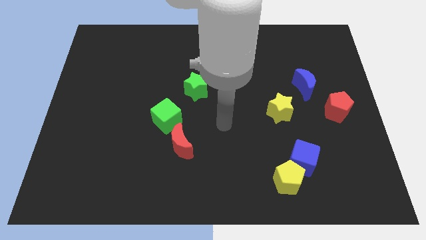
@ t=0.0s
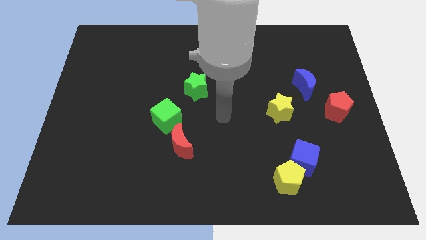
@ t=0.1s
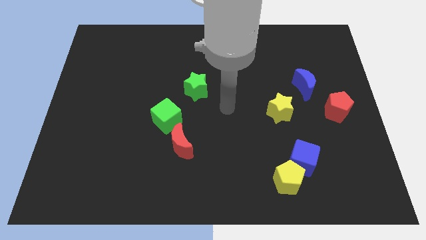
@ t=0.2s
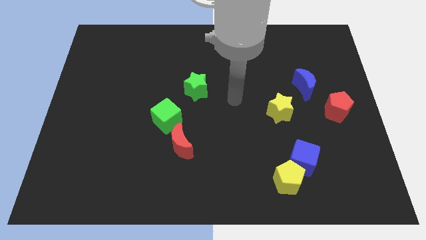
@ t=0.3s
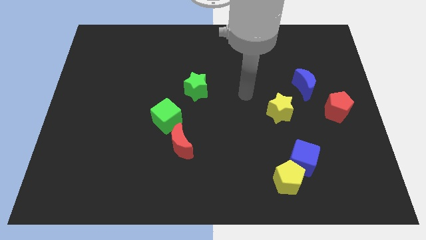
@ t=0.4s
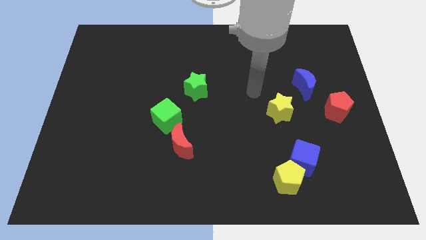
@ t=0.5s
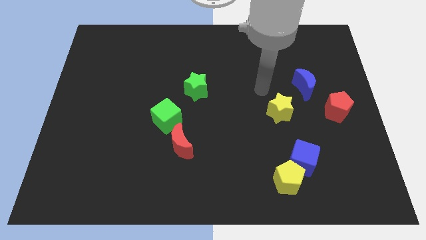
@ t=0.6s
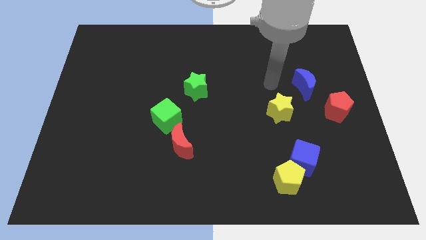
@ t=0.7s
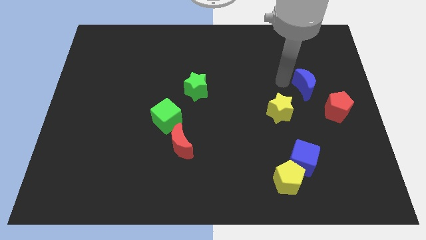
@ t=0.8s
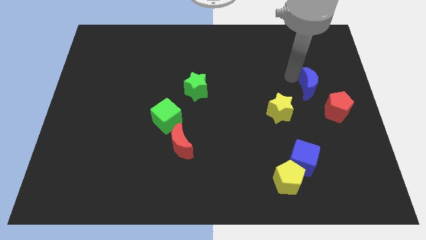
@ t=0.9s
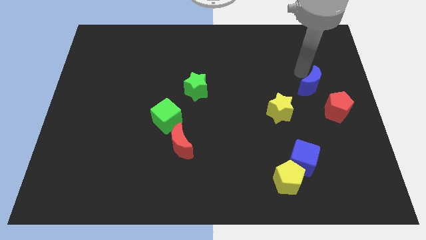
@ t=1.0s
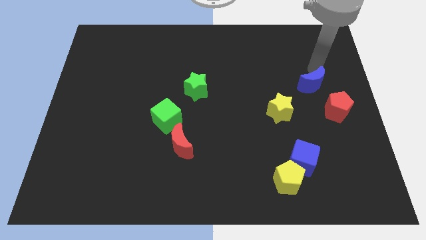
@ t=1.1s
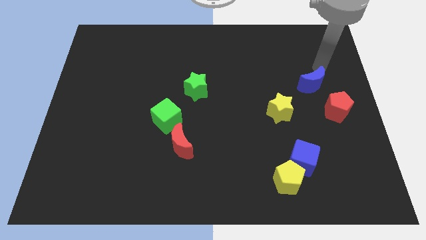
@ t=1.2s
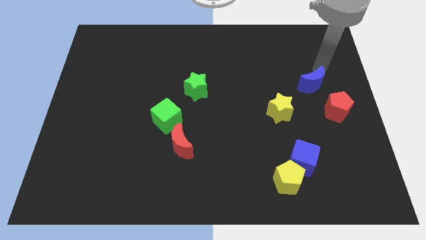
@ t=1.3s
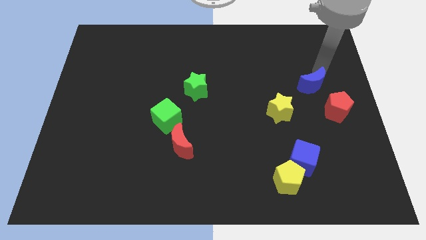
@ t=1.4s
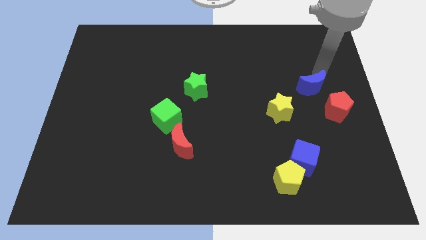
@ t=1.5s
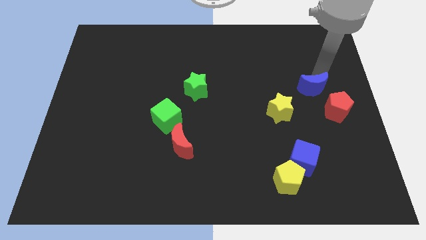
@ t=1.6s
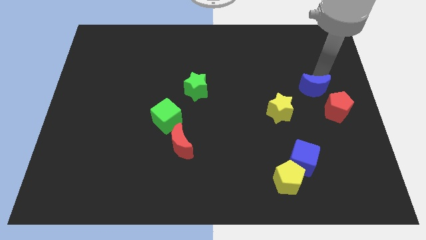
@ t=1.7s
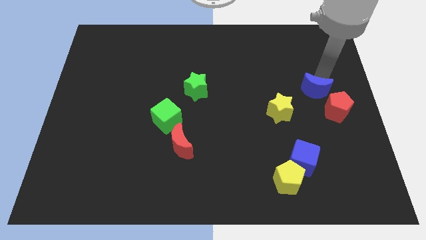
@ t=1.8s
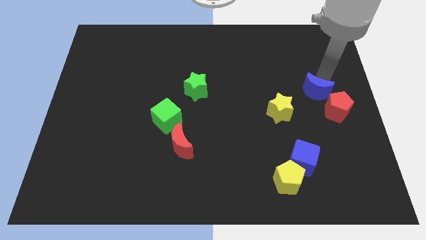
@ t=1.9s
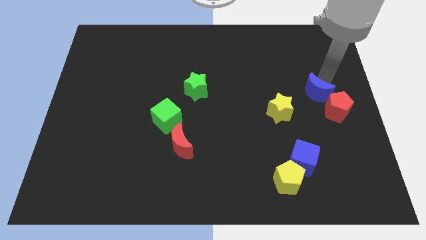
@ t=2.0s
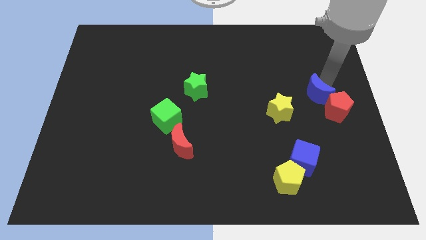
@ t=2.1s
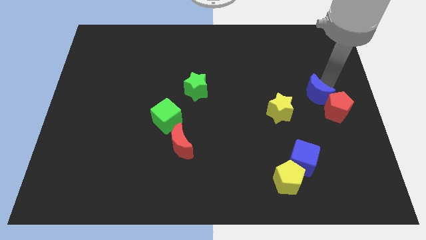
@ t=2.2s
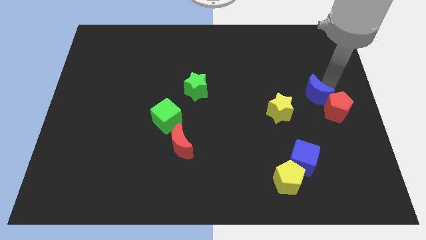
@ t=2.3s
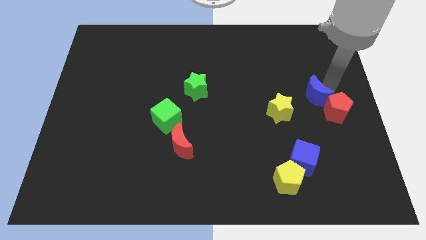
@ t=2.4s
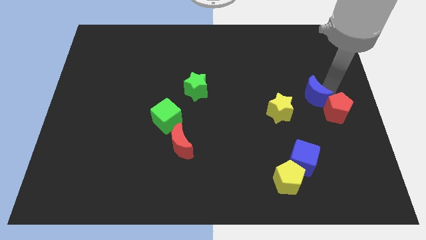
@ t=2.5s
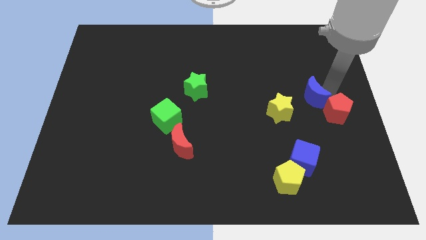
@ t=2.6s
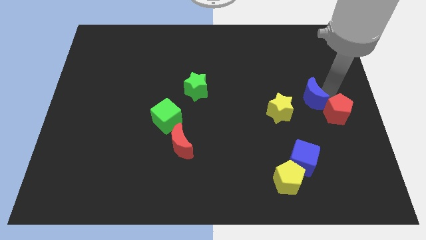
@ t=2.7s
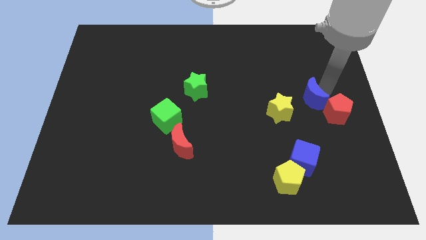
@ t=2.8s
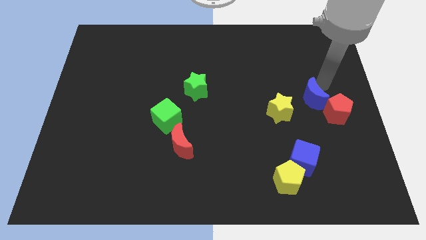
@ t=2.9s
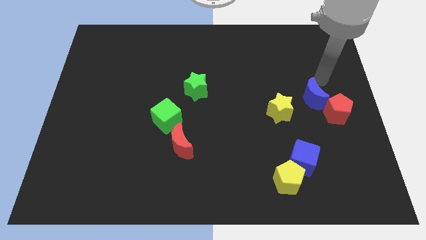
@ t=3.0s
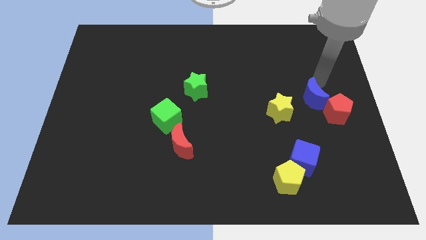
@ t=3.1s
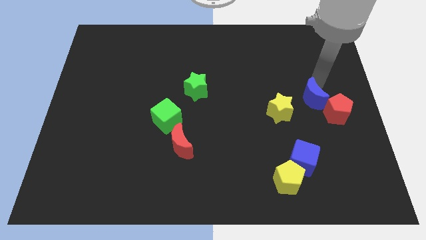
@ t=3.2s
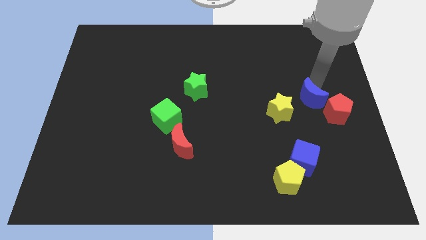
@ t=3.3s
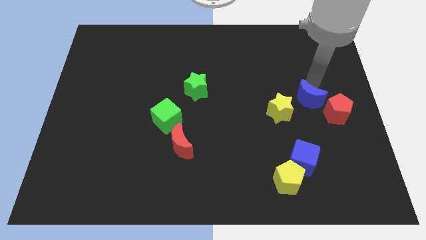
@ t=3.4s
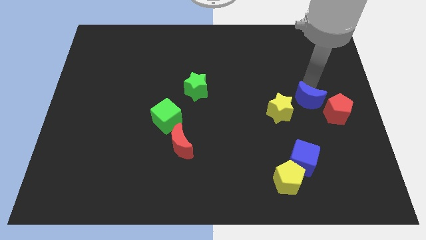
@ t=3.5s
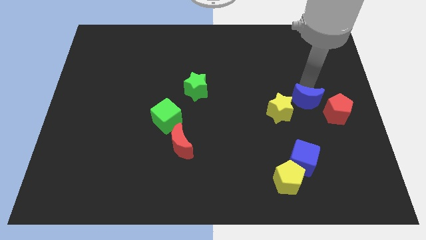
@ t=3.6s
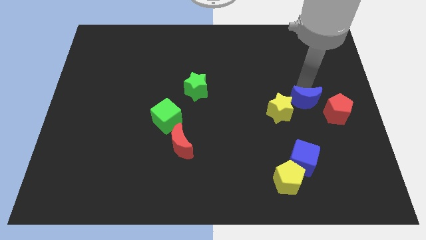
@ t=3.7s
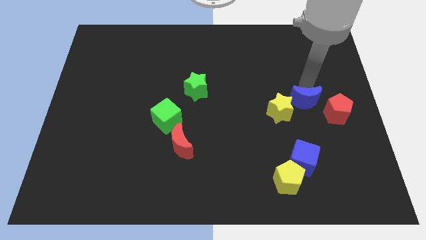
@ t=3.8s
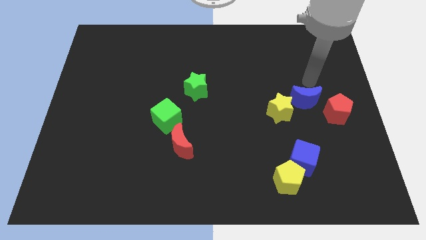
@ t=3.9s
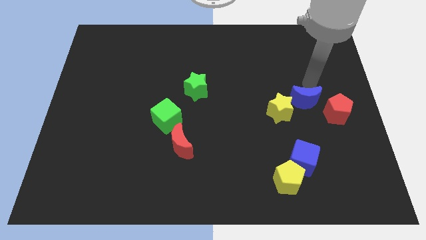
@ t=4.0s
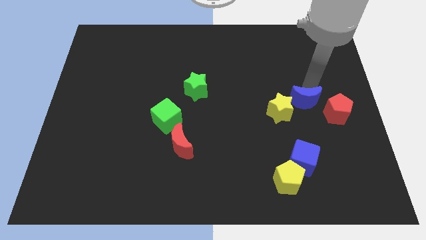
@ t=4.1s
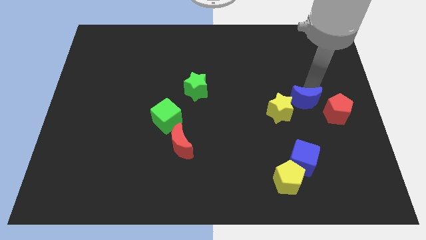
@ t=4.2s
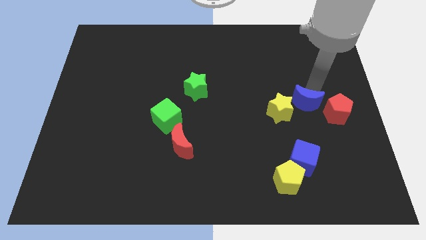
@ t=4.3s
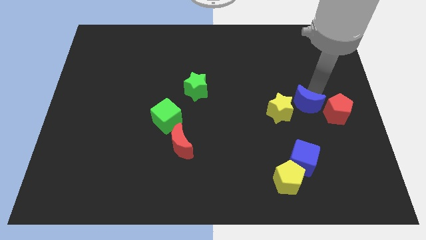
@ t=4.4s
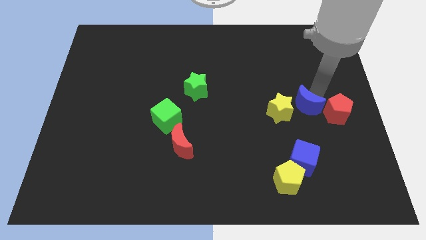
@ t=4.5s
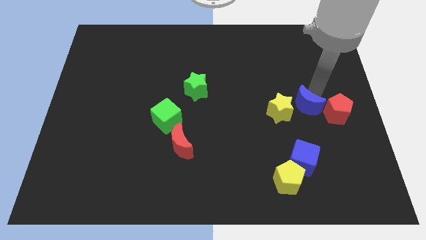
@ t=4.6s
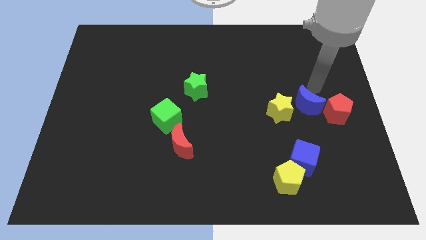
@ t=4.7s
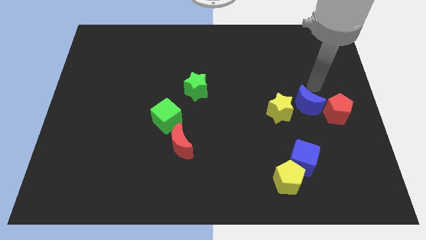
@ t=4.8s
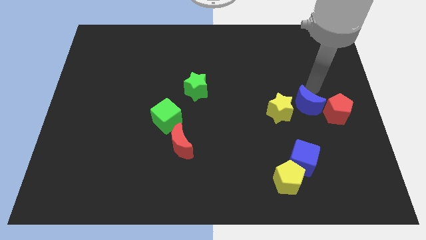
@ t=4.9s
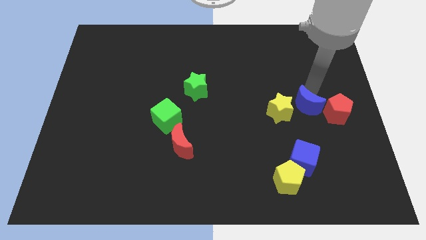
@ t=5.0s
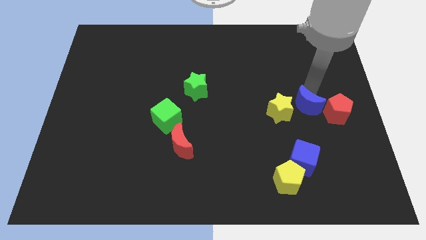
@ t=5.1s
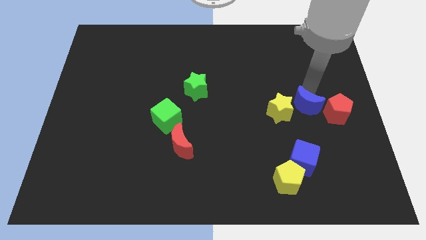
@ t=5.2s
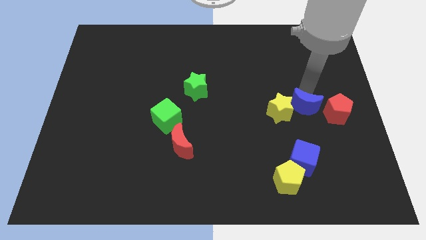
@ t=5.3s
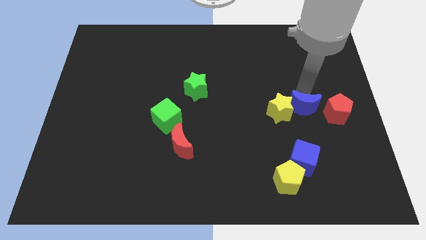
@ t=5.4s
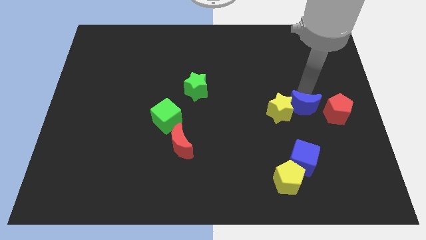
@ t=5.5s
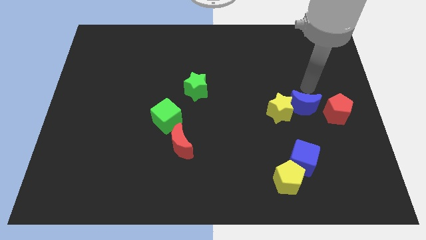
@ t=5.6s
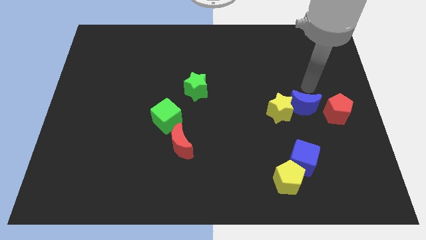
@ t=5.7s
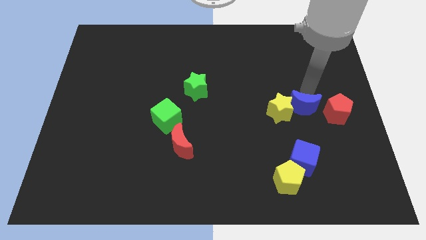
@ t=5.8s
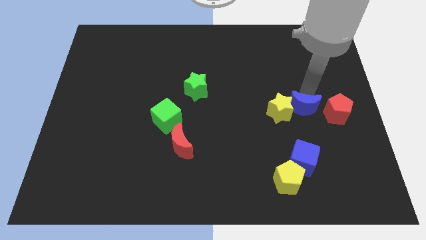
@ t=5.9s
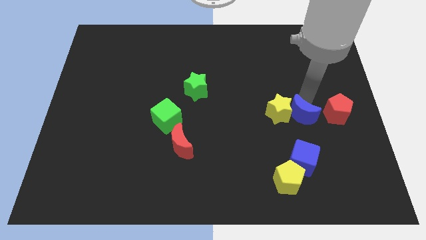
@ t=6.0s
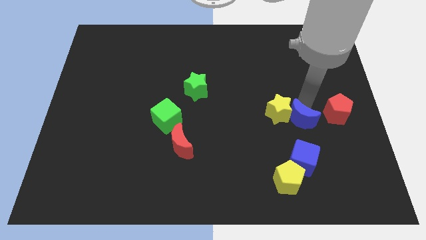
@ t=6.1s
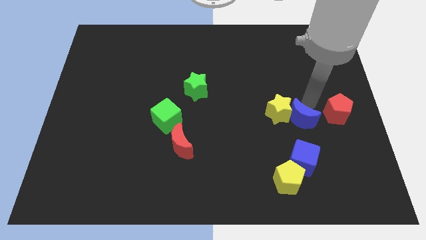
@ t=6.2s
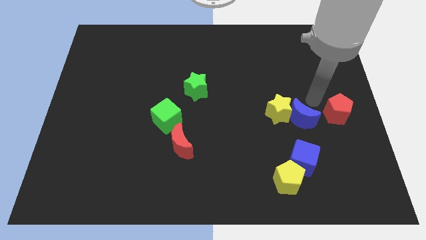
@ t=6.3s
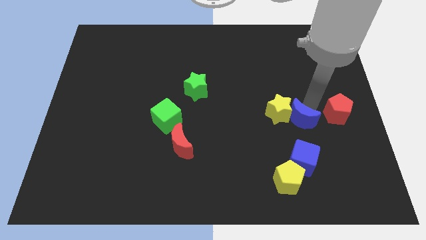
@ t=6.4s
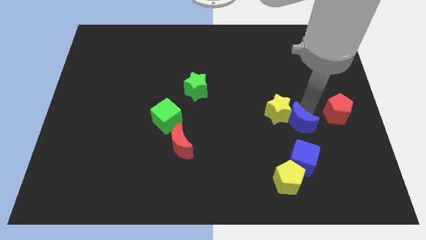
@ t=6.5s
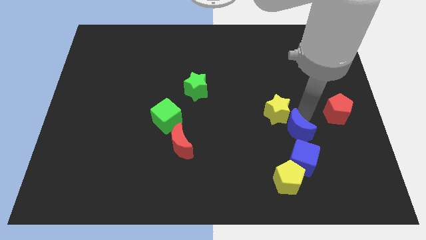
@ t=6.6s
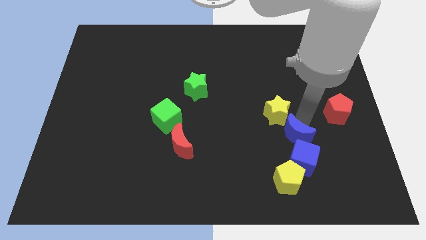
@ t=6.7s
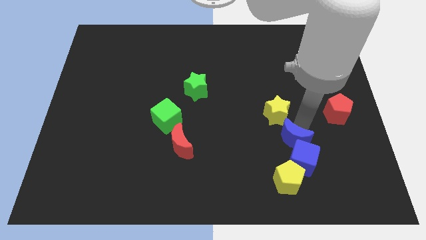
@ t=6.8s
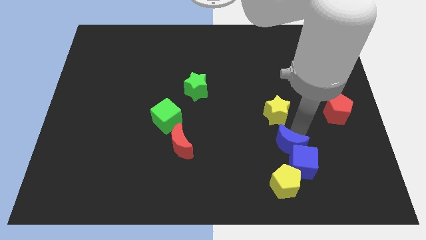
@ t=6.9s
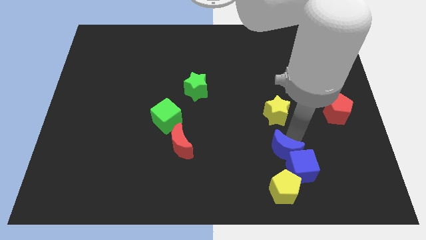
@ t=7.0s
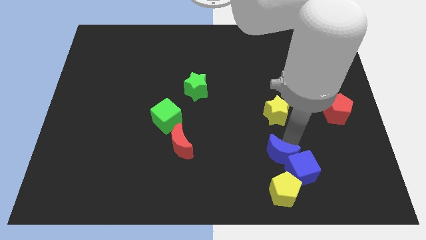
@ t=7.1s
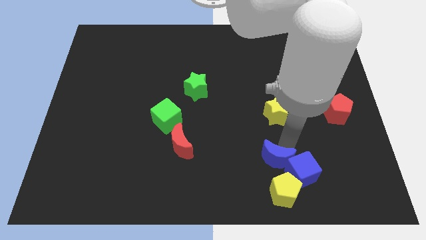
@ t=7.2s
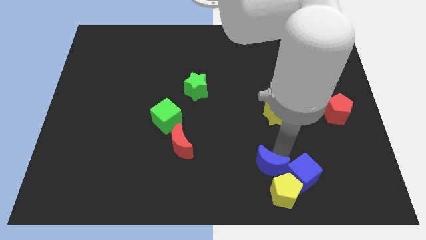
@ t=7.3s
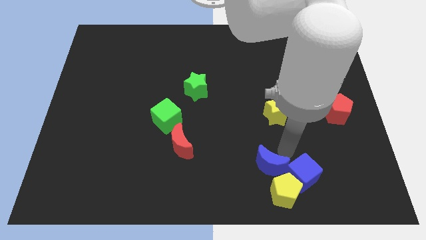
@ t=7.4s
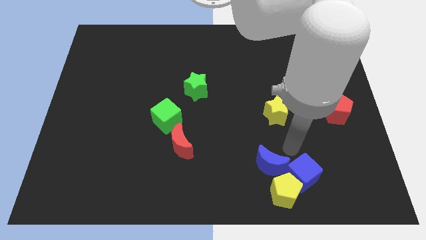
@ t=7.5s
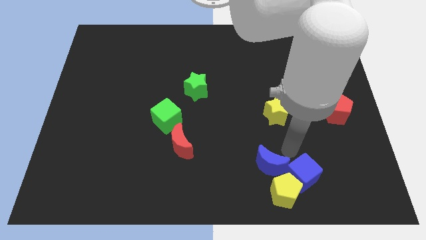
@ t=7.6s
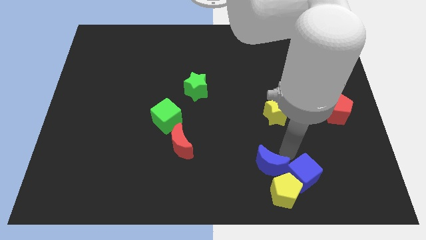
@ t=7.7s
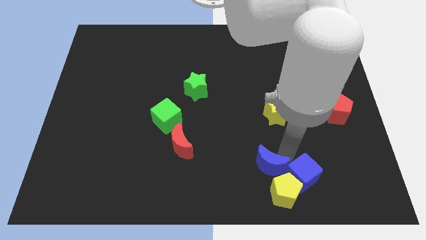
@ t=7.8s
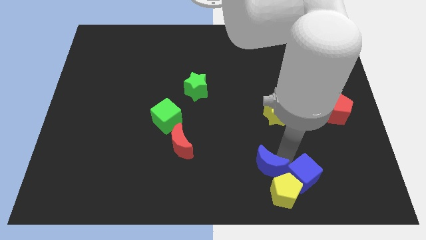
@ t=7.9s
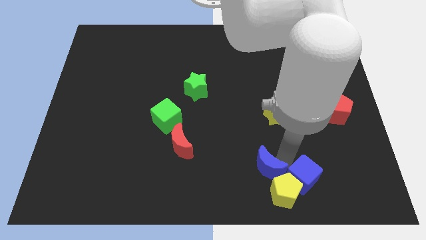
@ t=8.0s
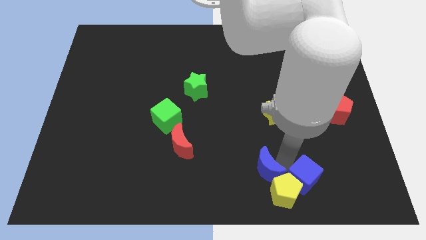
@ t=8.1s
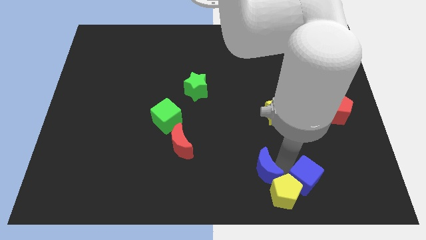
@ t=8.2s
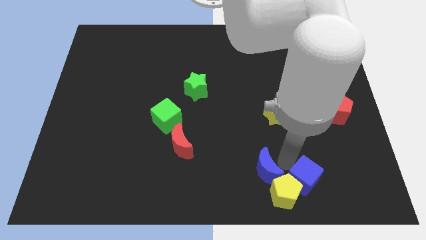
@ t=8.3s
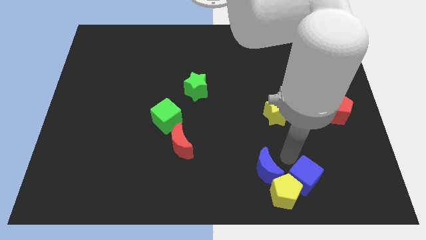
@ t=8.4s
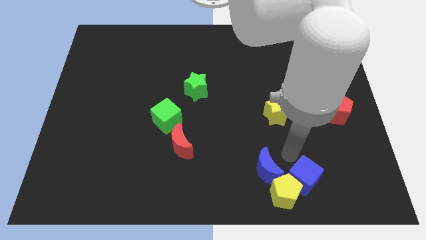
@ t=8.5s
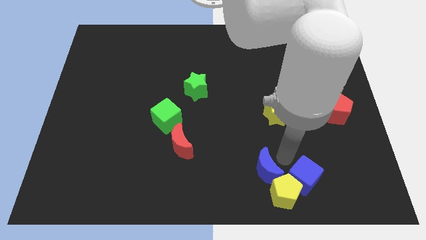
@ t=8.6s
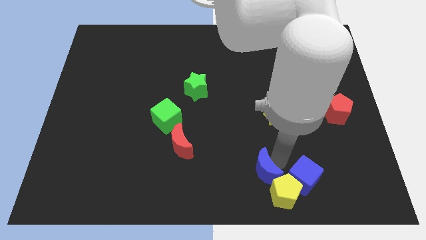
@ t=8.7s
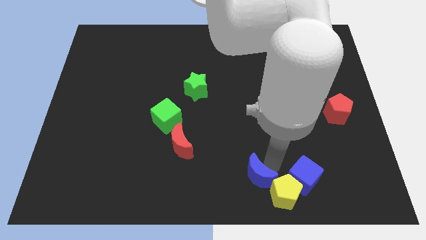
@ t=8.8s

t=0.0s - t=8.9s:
push the blue moon to the bottom
